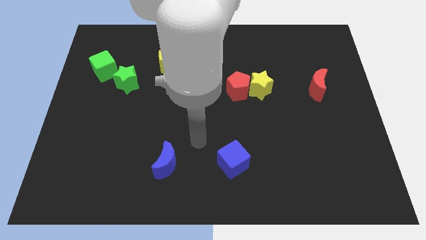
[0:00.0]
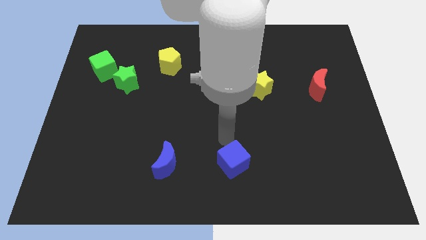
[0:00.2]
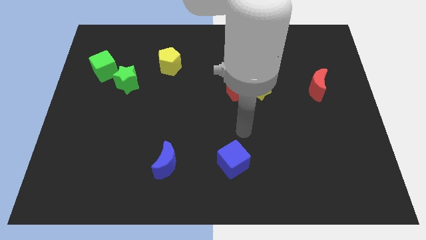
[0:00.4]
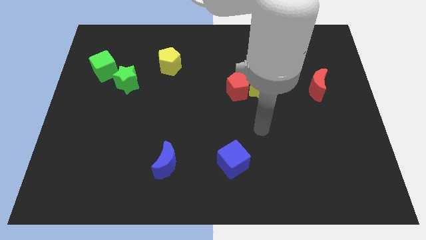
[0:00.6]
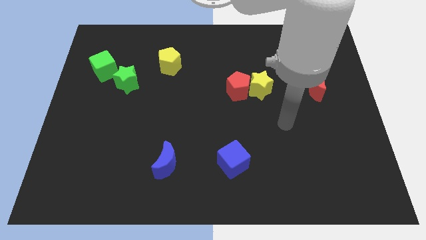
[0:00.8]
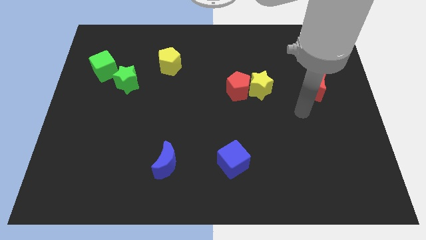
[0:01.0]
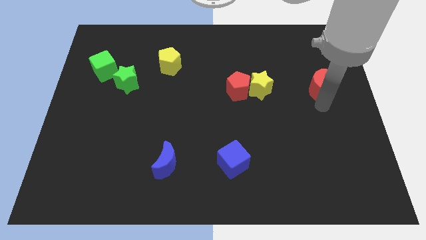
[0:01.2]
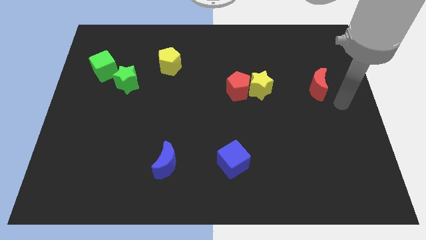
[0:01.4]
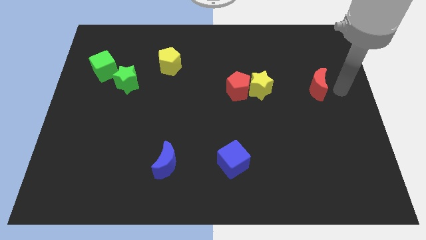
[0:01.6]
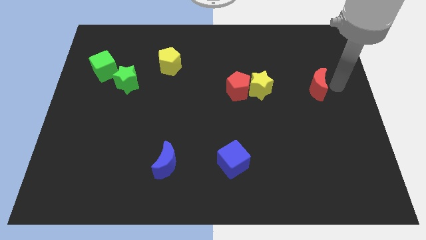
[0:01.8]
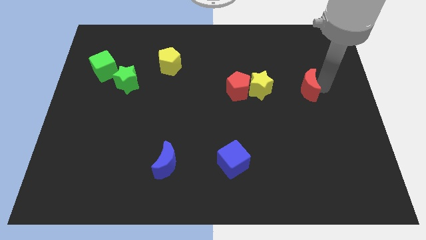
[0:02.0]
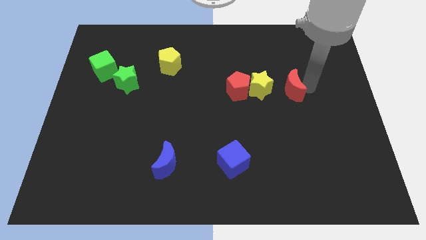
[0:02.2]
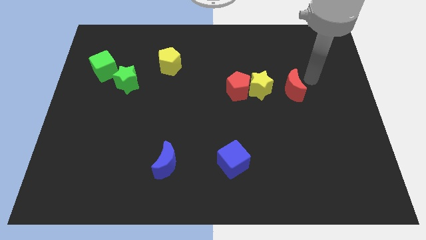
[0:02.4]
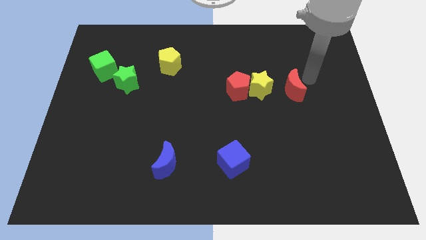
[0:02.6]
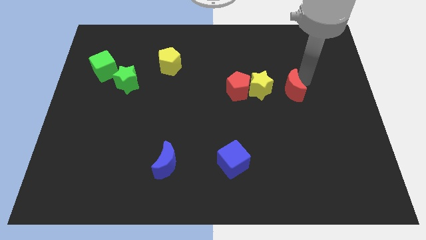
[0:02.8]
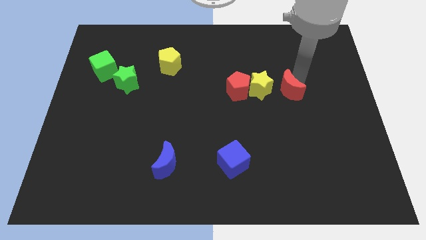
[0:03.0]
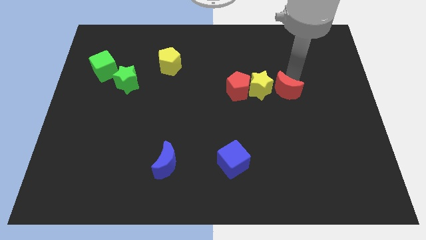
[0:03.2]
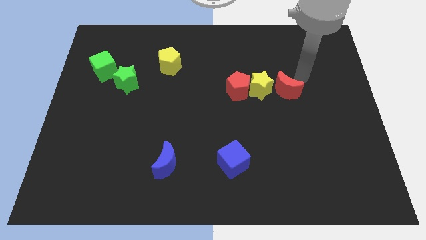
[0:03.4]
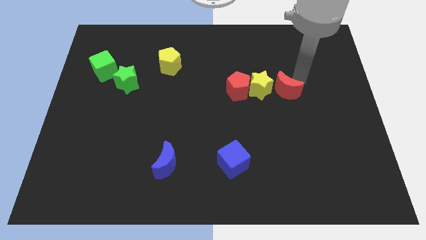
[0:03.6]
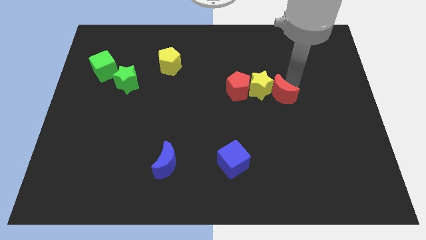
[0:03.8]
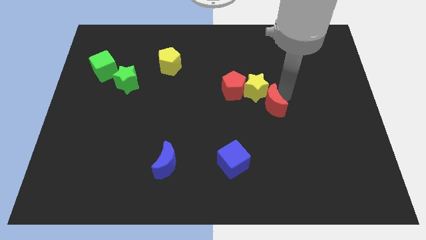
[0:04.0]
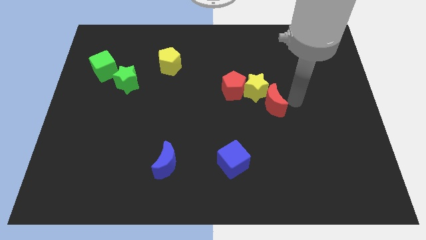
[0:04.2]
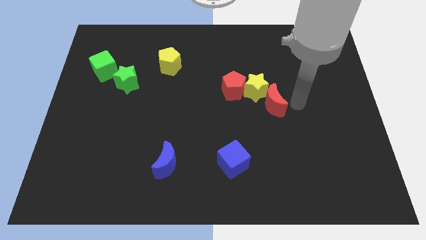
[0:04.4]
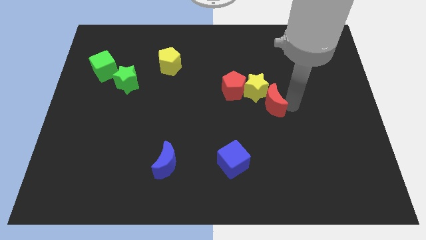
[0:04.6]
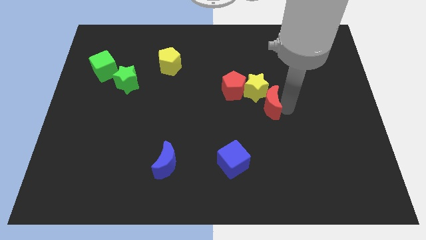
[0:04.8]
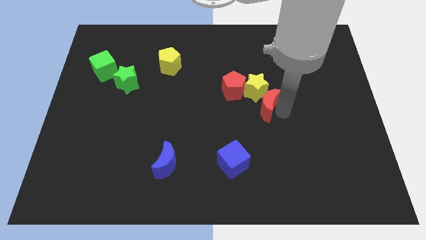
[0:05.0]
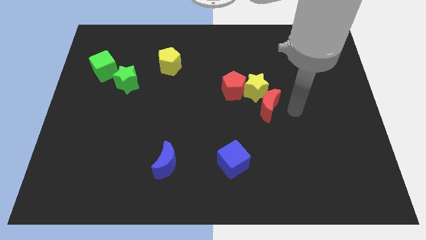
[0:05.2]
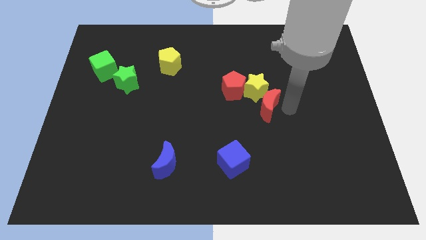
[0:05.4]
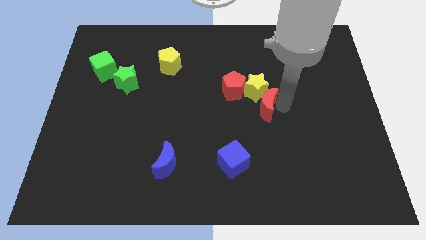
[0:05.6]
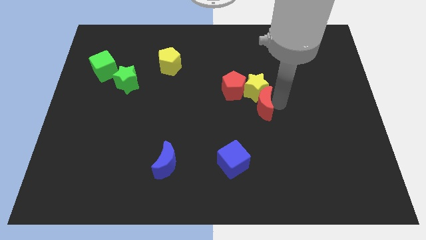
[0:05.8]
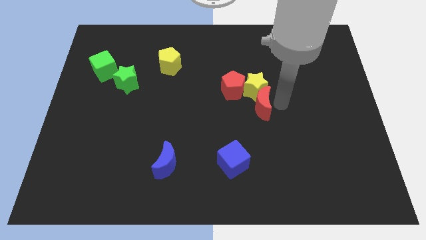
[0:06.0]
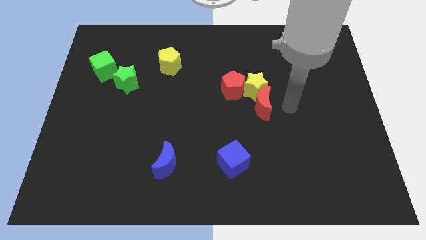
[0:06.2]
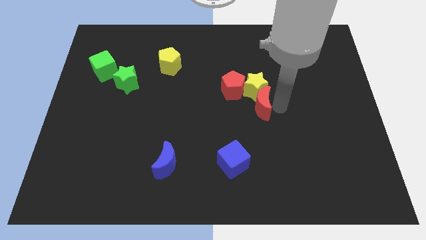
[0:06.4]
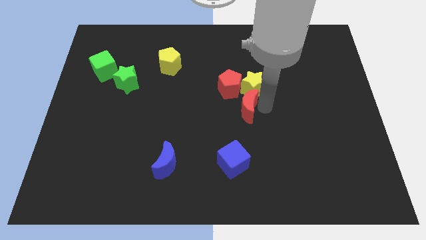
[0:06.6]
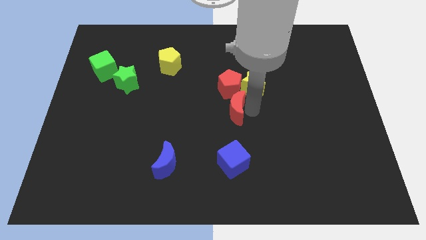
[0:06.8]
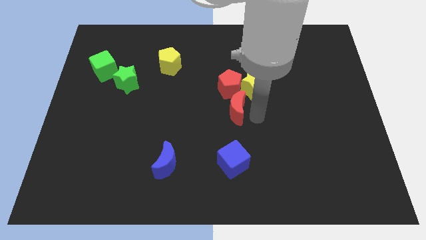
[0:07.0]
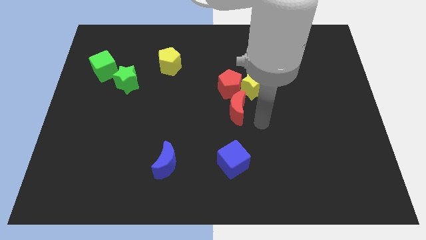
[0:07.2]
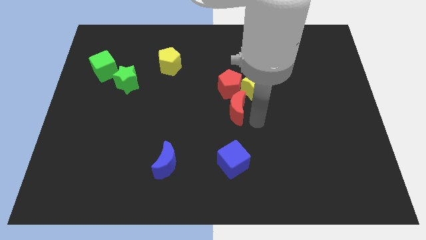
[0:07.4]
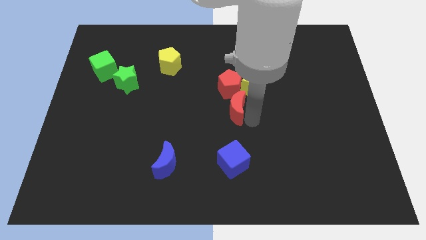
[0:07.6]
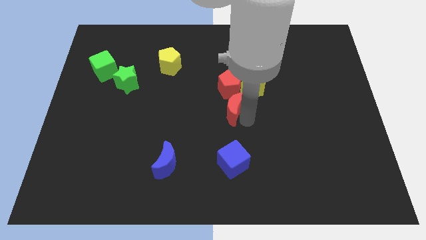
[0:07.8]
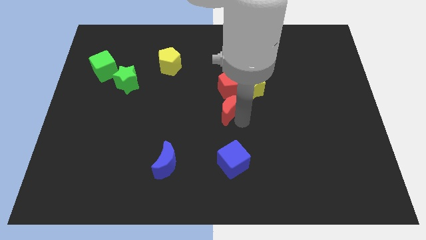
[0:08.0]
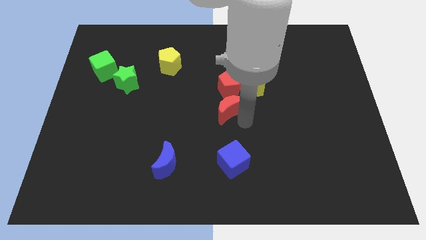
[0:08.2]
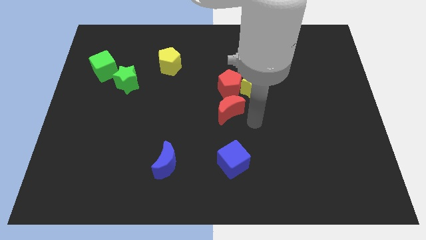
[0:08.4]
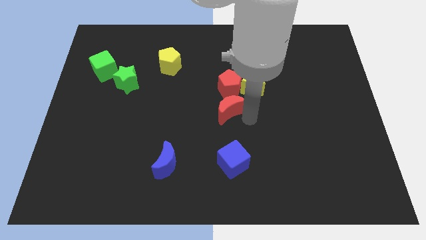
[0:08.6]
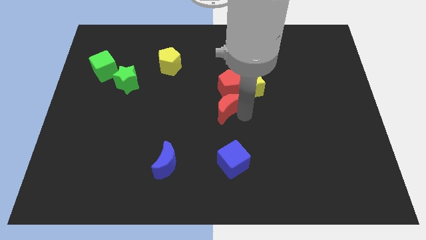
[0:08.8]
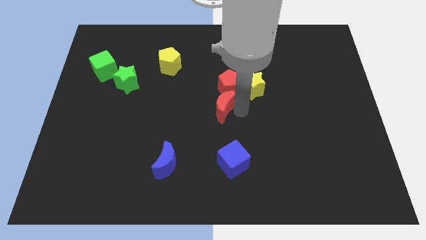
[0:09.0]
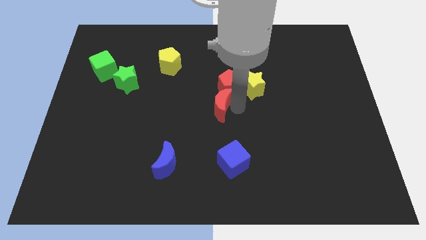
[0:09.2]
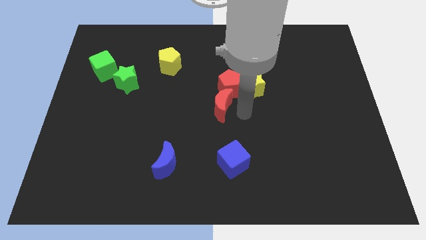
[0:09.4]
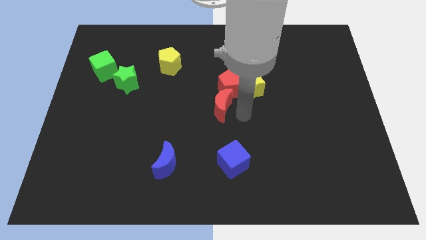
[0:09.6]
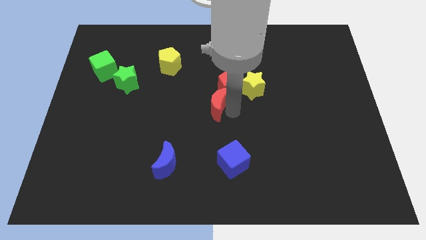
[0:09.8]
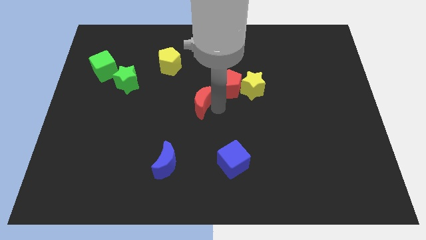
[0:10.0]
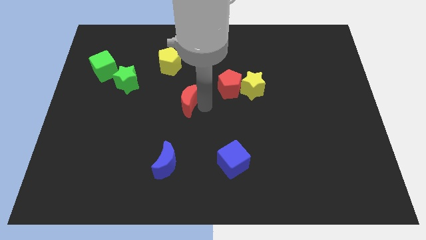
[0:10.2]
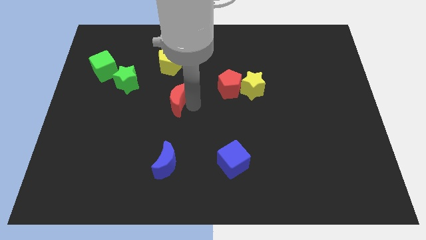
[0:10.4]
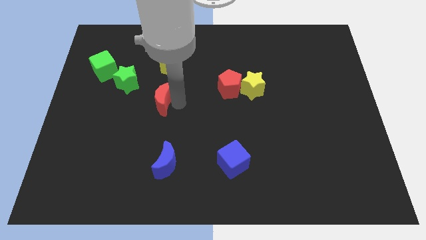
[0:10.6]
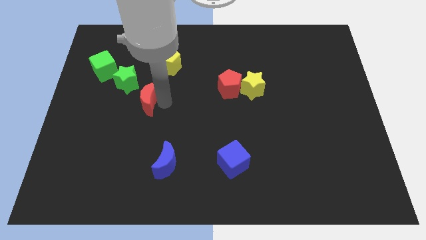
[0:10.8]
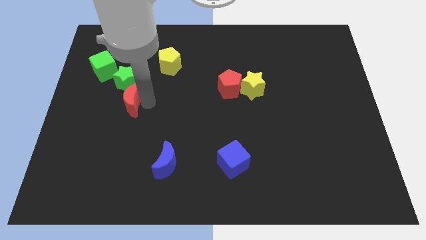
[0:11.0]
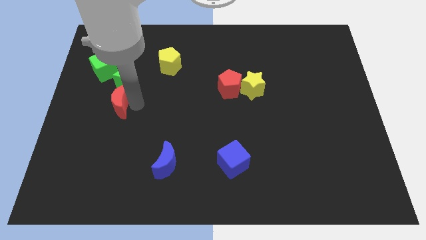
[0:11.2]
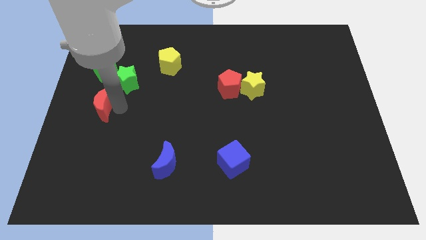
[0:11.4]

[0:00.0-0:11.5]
move the red moon to the left side

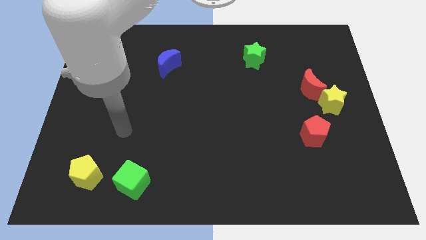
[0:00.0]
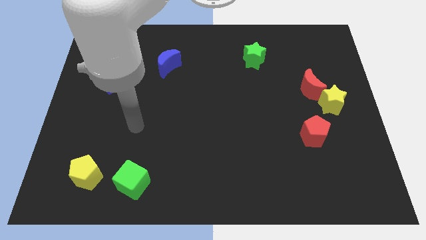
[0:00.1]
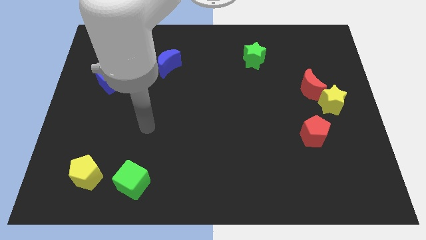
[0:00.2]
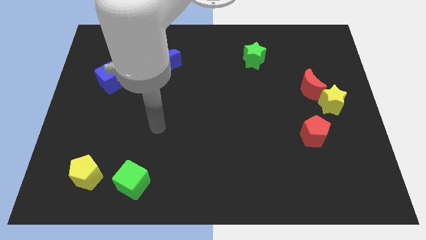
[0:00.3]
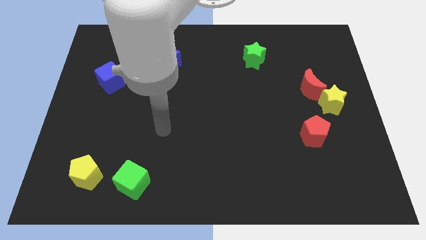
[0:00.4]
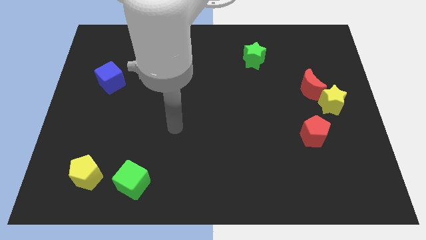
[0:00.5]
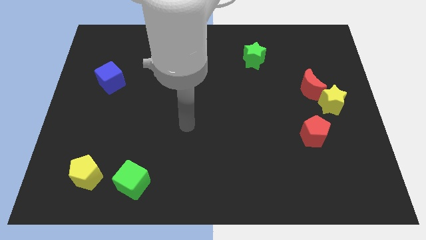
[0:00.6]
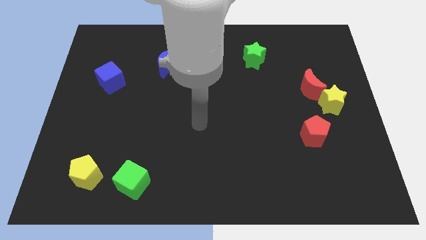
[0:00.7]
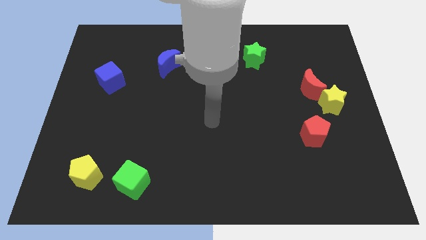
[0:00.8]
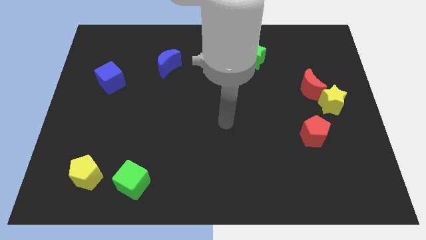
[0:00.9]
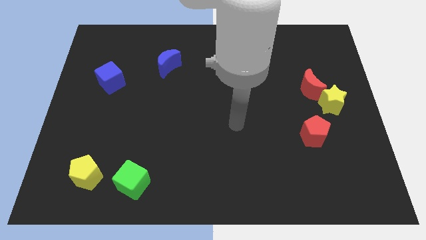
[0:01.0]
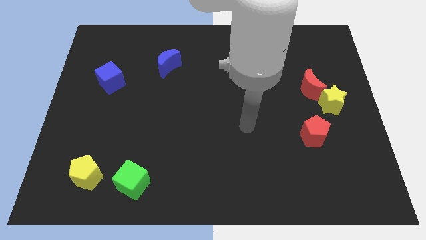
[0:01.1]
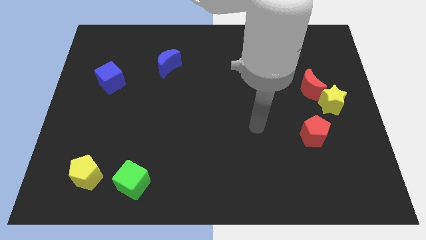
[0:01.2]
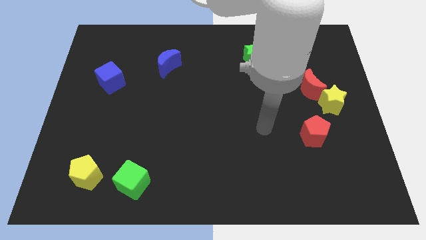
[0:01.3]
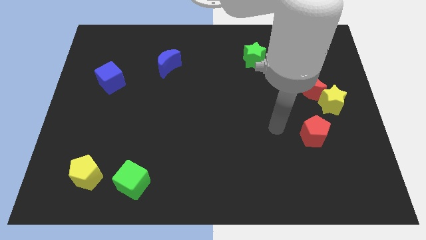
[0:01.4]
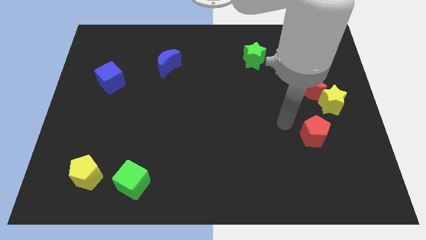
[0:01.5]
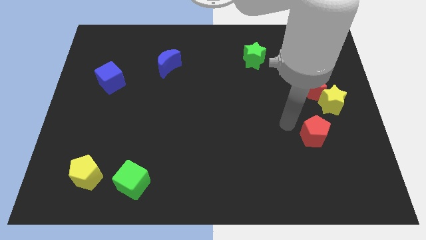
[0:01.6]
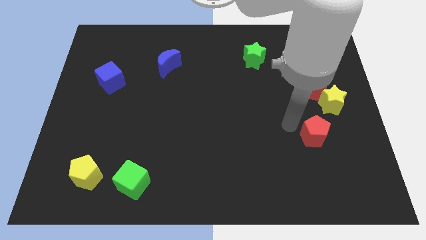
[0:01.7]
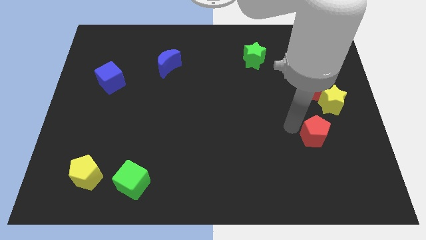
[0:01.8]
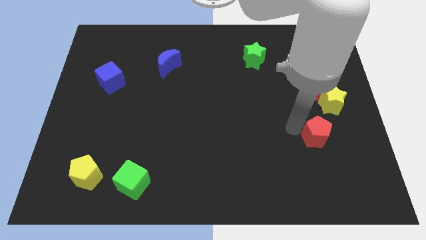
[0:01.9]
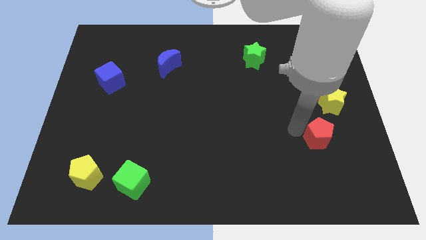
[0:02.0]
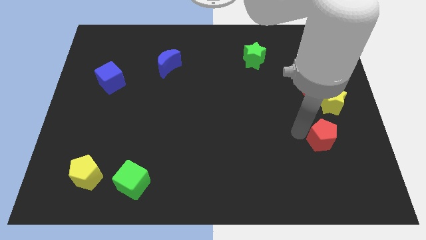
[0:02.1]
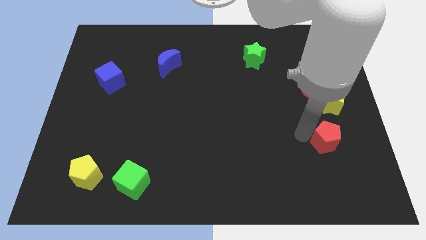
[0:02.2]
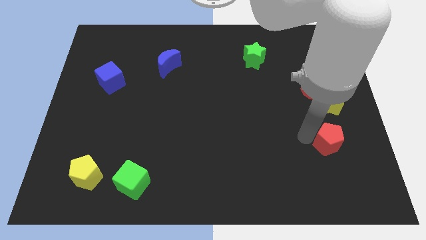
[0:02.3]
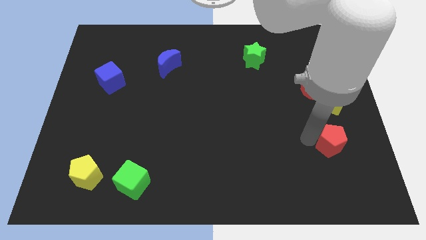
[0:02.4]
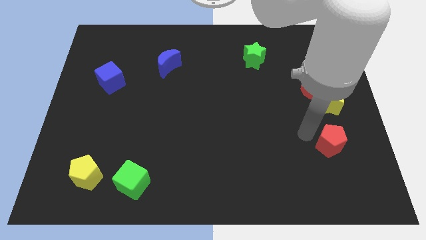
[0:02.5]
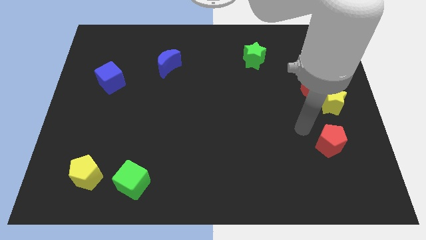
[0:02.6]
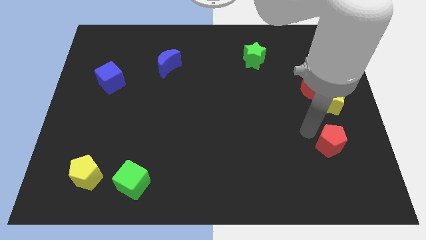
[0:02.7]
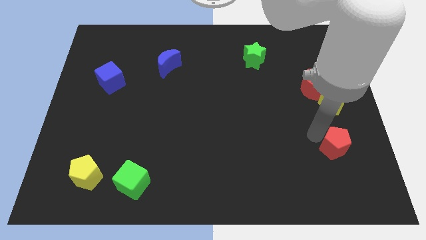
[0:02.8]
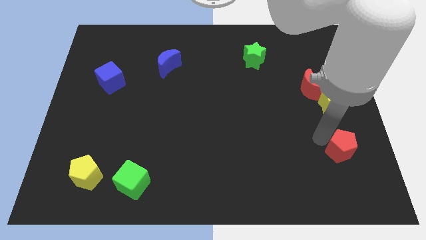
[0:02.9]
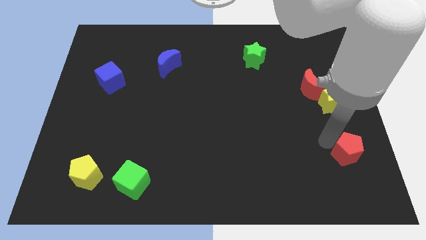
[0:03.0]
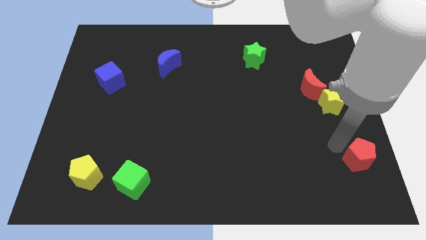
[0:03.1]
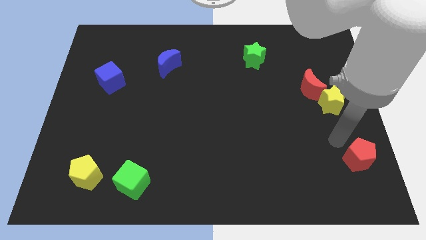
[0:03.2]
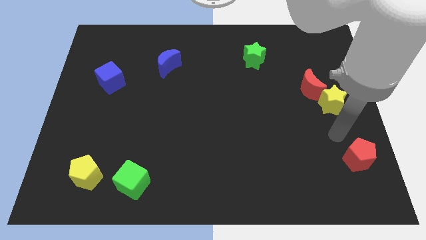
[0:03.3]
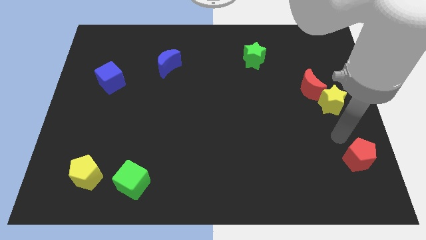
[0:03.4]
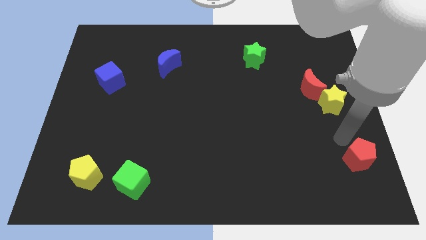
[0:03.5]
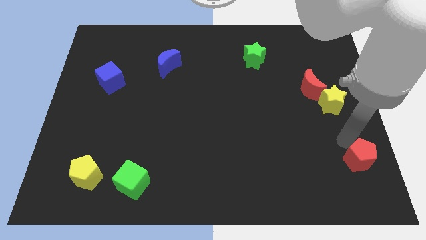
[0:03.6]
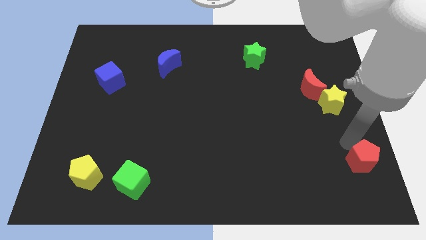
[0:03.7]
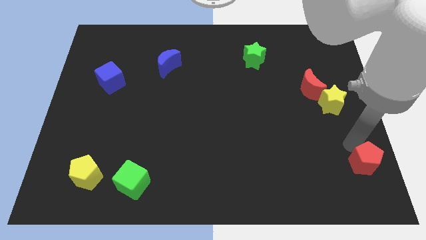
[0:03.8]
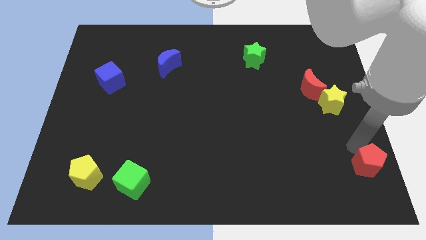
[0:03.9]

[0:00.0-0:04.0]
move the red pentagon to the bottom right
